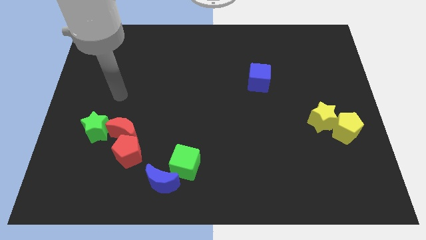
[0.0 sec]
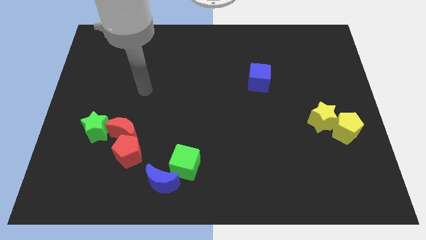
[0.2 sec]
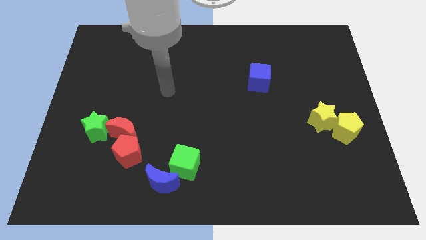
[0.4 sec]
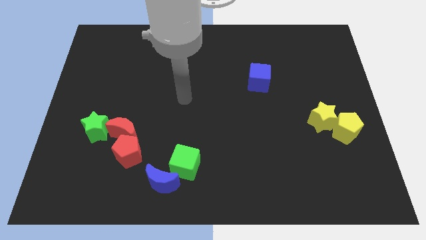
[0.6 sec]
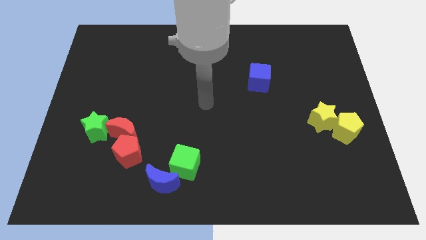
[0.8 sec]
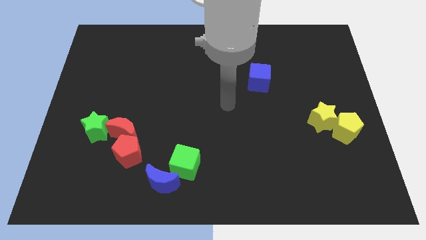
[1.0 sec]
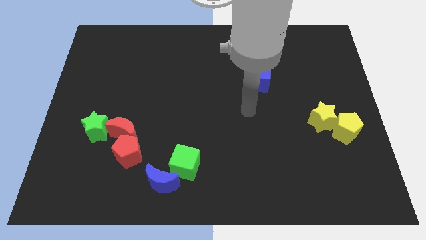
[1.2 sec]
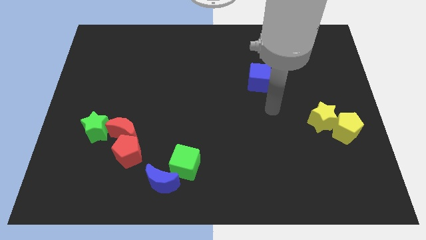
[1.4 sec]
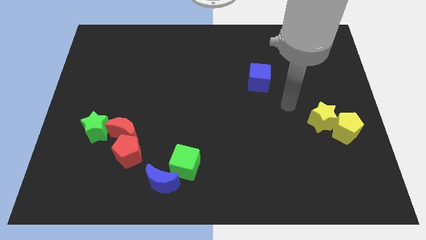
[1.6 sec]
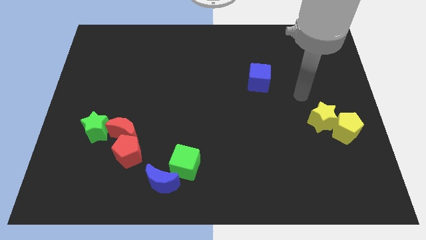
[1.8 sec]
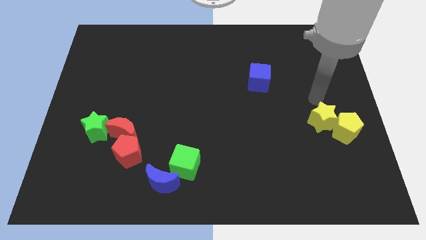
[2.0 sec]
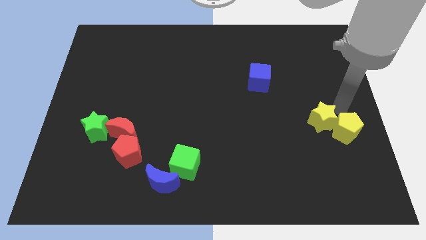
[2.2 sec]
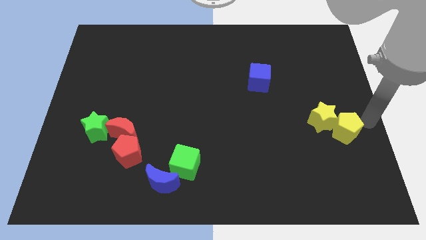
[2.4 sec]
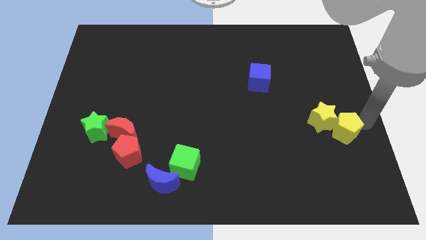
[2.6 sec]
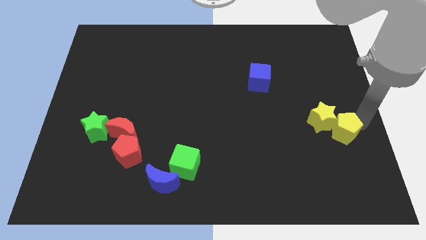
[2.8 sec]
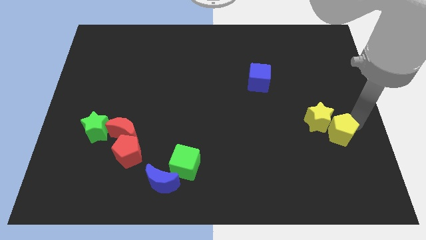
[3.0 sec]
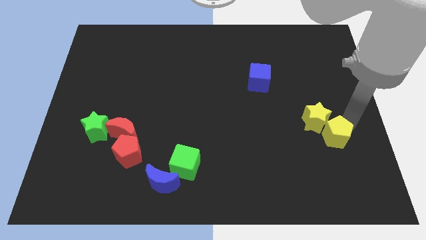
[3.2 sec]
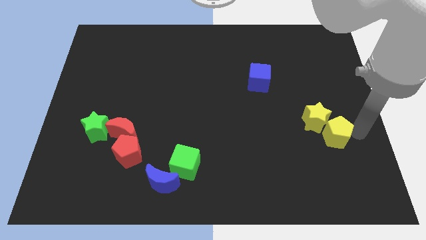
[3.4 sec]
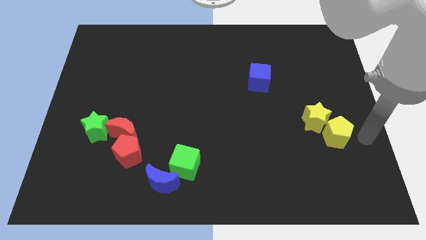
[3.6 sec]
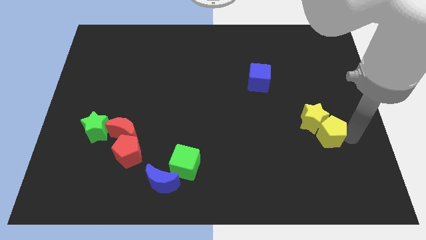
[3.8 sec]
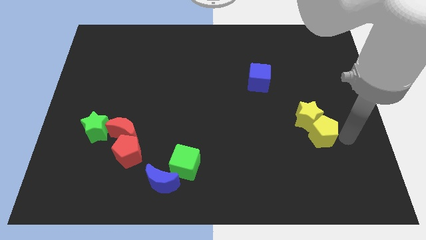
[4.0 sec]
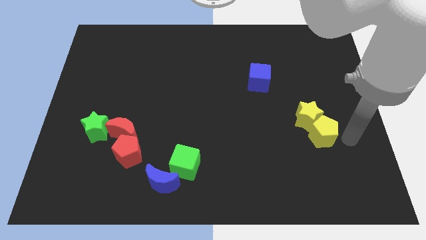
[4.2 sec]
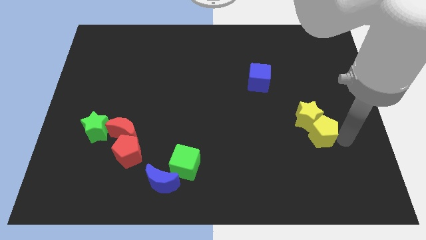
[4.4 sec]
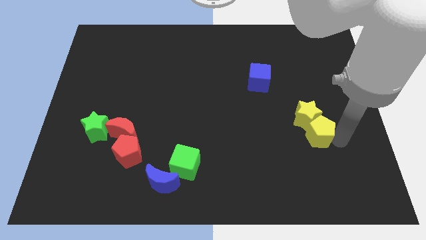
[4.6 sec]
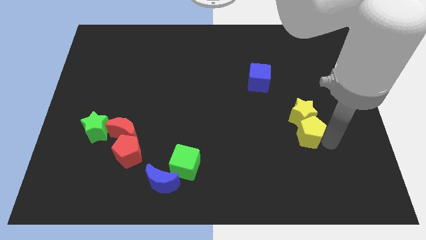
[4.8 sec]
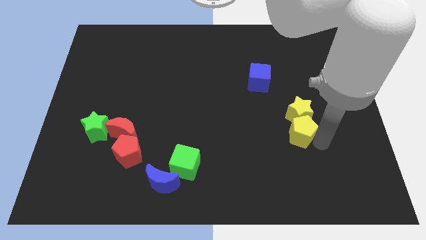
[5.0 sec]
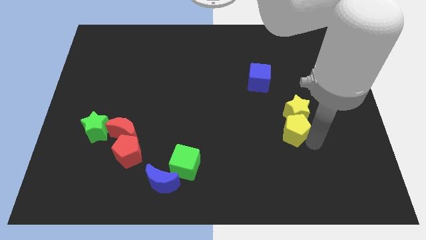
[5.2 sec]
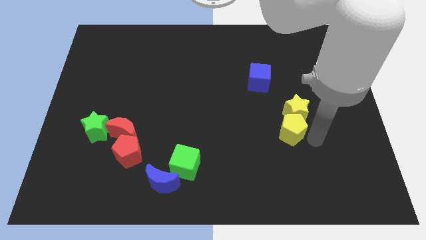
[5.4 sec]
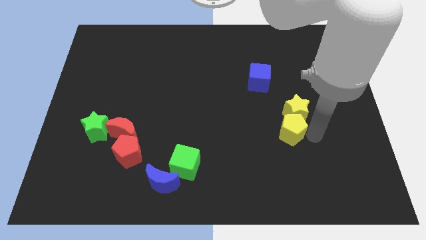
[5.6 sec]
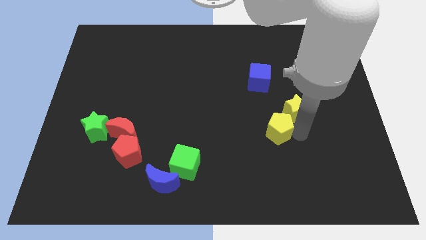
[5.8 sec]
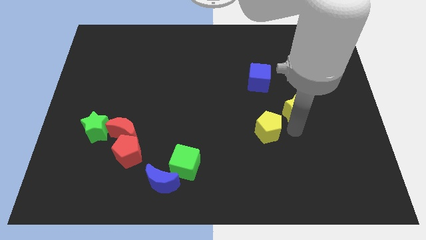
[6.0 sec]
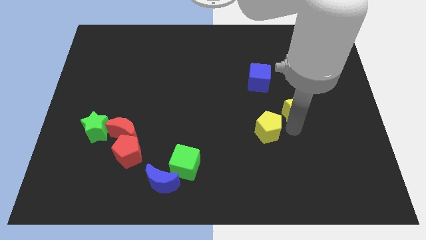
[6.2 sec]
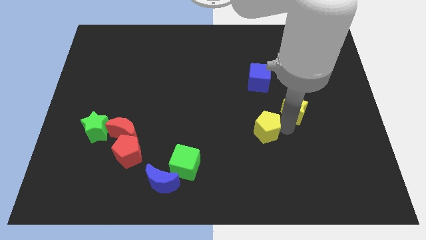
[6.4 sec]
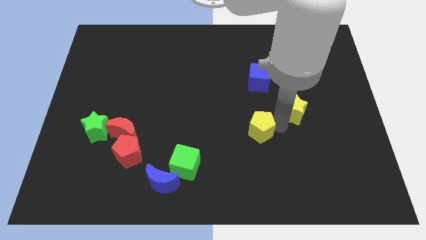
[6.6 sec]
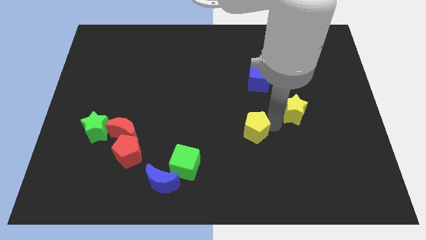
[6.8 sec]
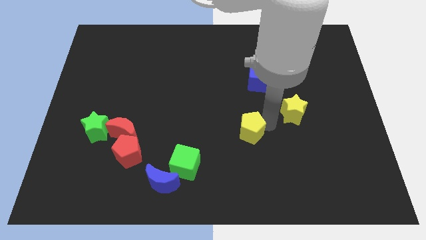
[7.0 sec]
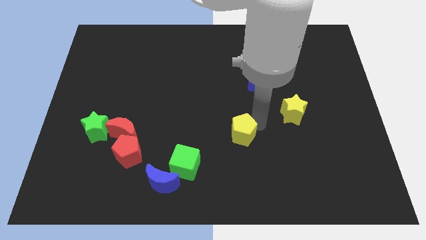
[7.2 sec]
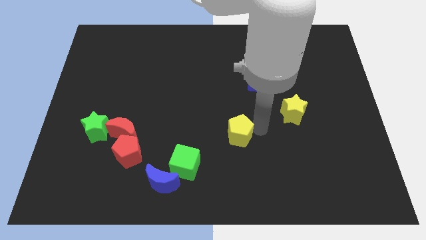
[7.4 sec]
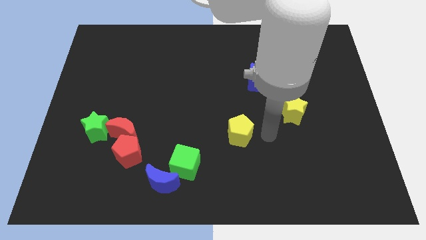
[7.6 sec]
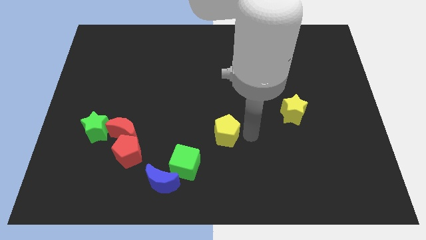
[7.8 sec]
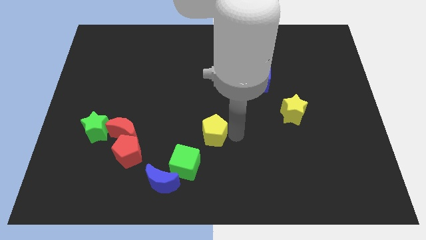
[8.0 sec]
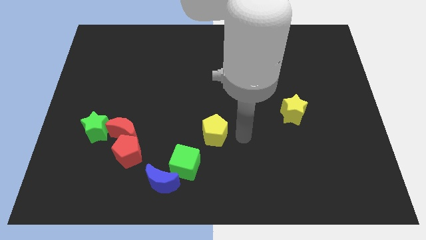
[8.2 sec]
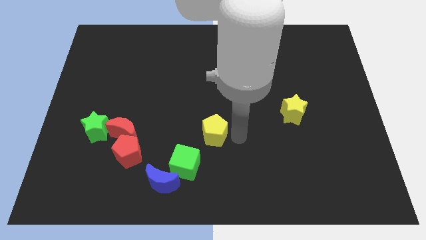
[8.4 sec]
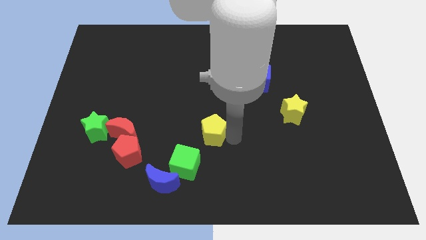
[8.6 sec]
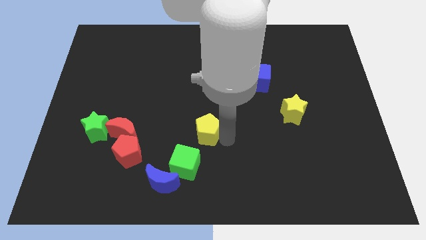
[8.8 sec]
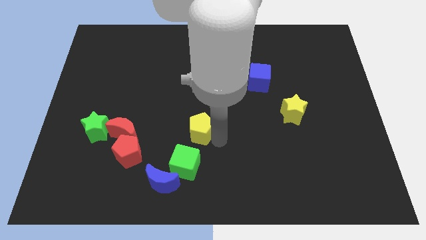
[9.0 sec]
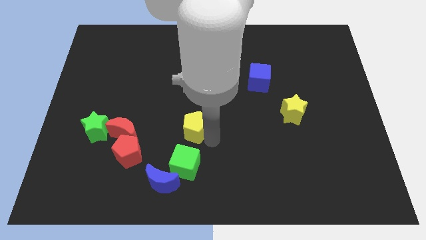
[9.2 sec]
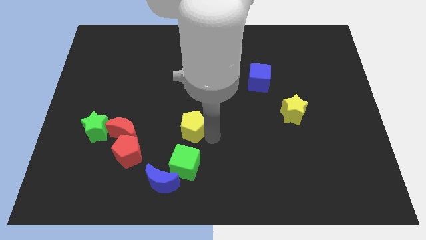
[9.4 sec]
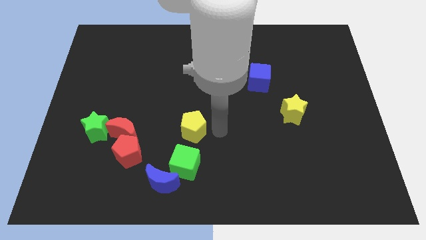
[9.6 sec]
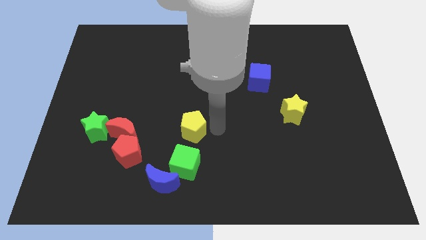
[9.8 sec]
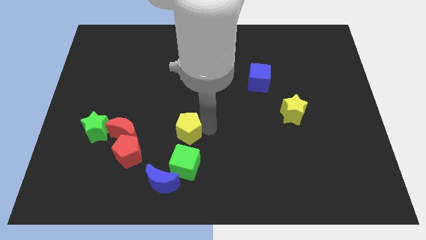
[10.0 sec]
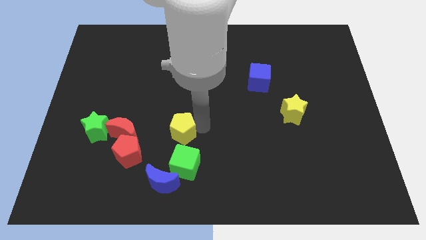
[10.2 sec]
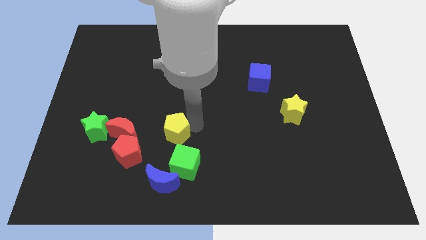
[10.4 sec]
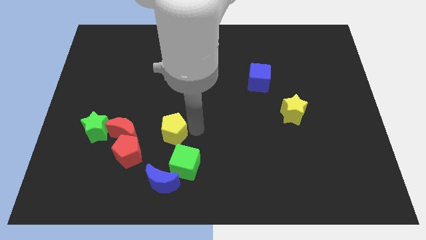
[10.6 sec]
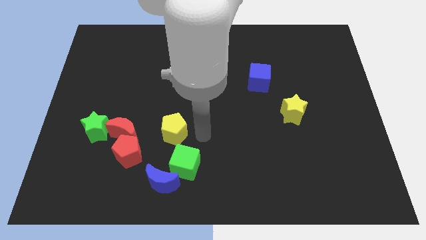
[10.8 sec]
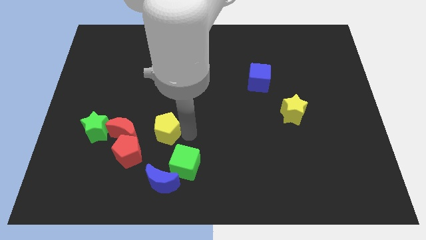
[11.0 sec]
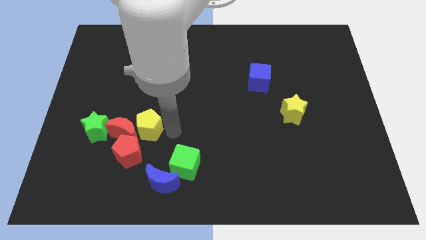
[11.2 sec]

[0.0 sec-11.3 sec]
push the yellow pentagon towards the red moon
